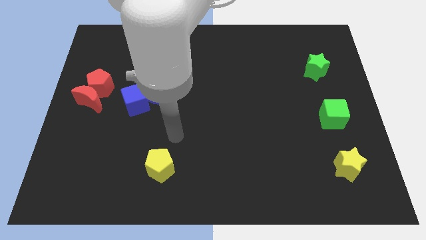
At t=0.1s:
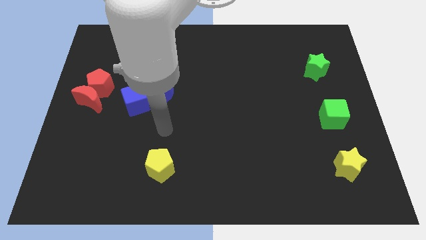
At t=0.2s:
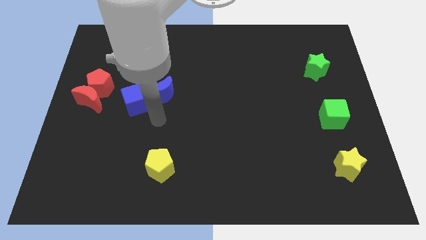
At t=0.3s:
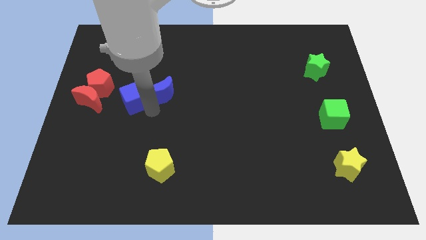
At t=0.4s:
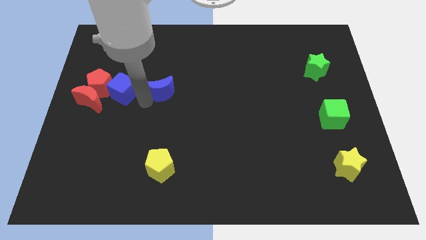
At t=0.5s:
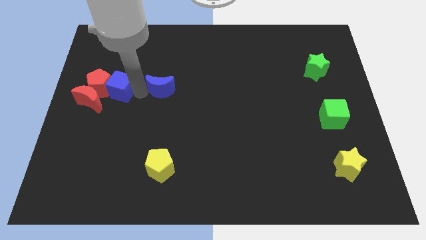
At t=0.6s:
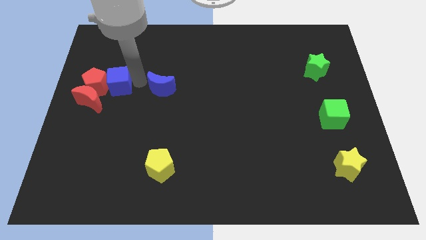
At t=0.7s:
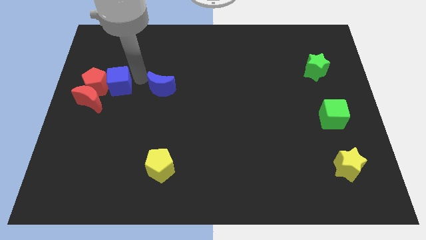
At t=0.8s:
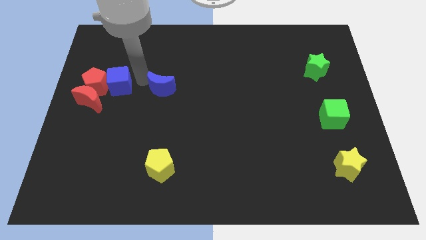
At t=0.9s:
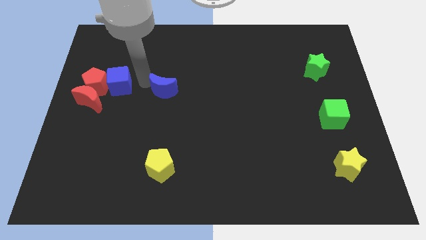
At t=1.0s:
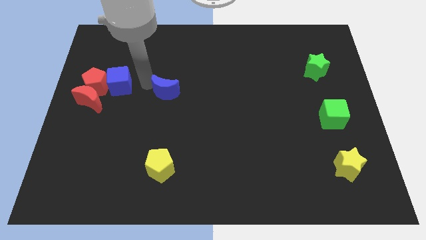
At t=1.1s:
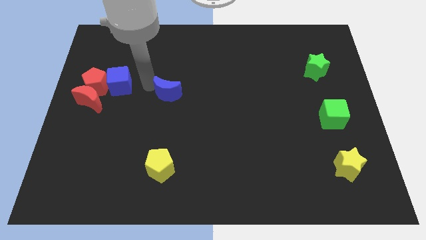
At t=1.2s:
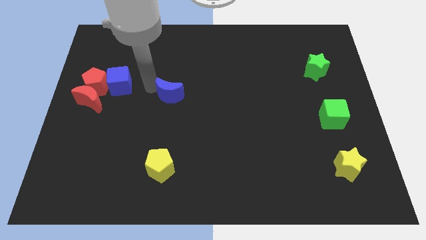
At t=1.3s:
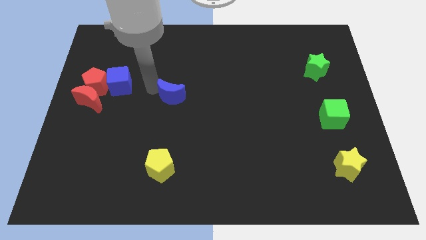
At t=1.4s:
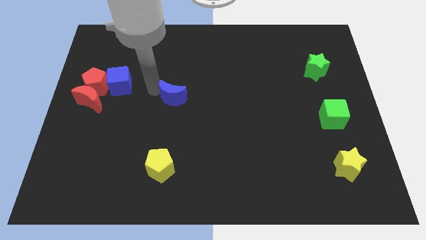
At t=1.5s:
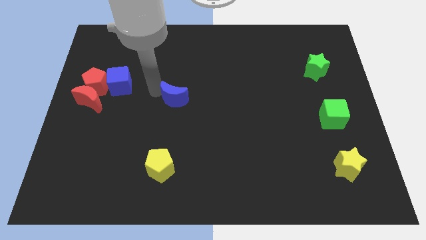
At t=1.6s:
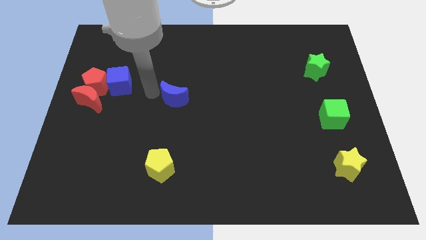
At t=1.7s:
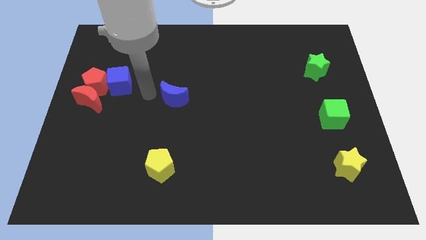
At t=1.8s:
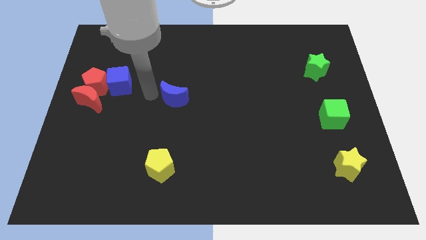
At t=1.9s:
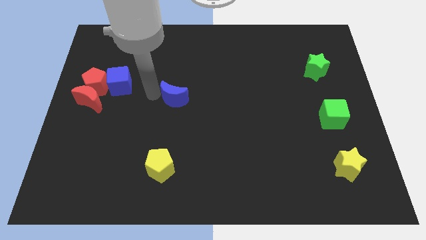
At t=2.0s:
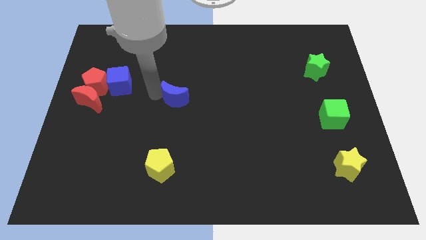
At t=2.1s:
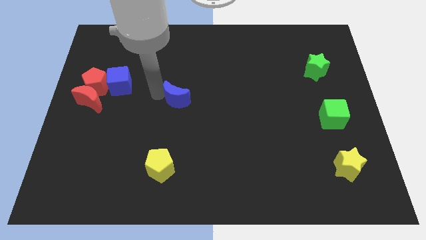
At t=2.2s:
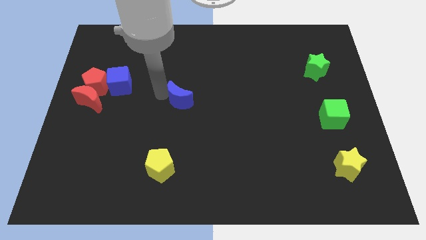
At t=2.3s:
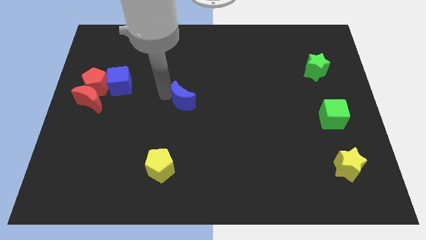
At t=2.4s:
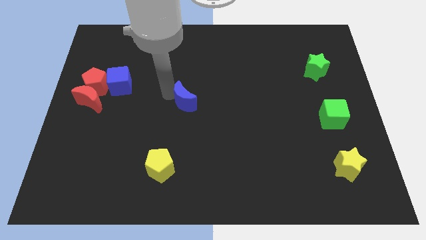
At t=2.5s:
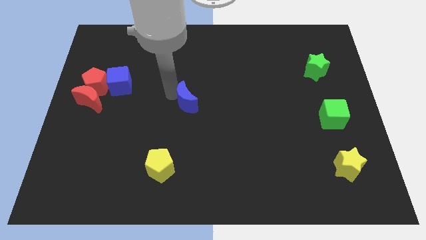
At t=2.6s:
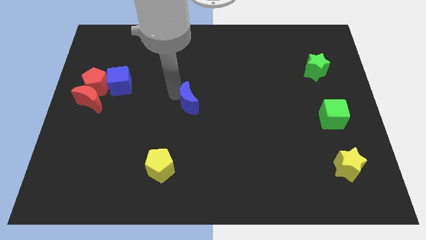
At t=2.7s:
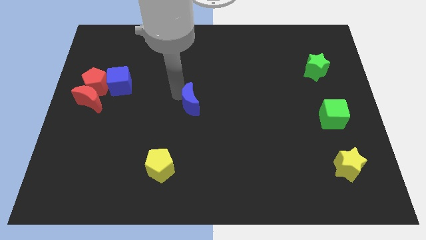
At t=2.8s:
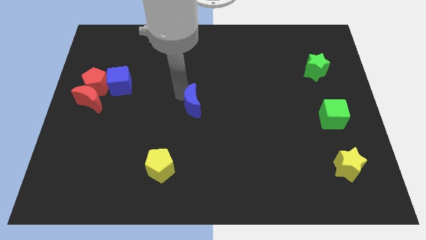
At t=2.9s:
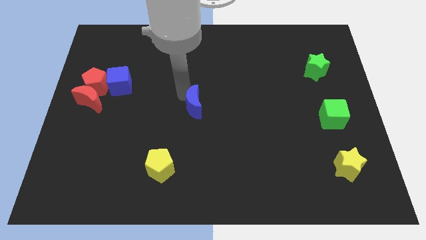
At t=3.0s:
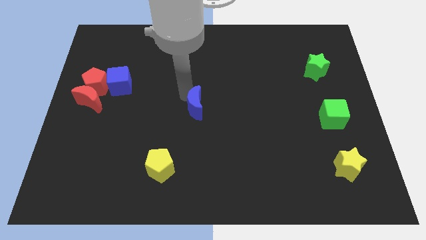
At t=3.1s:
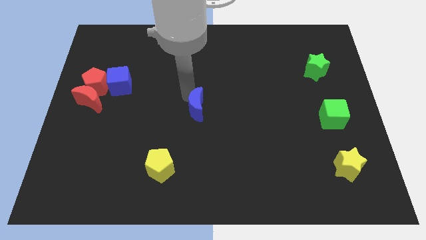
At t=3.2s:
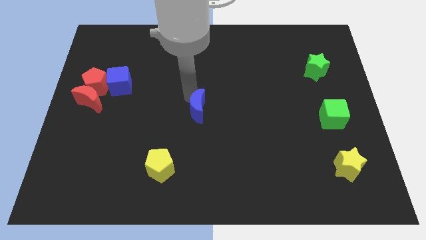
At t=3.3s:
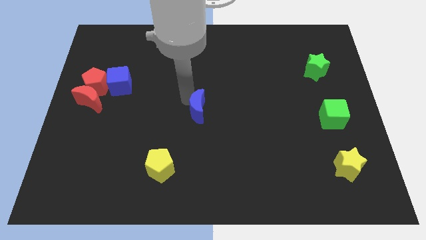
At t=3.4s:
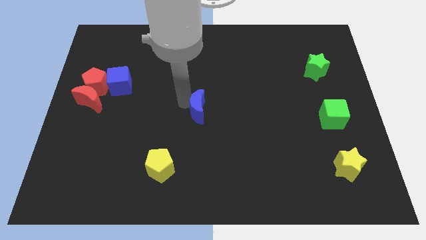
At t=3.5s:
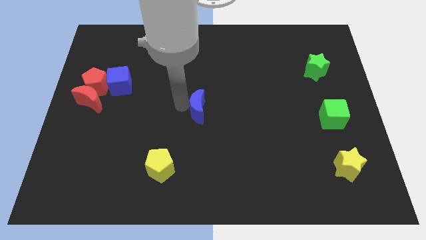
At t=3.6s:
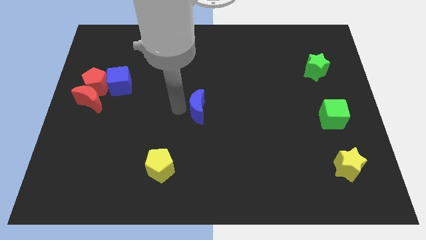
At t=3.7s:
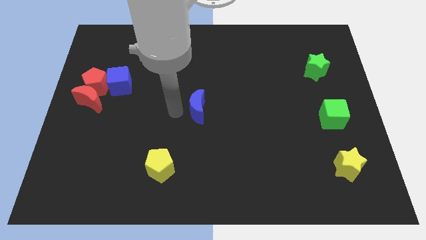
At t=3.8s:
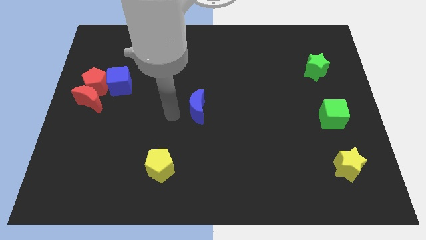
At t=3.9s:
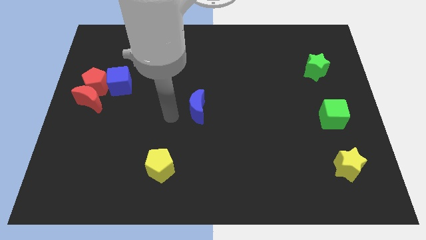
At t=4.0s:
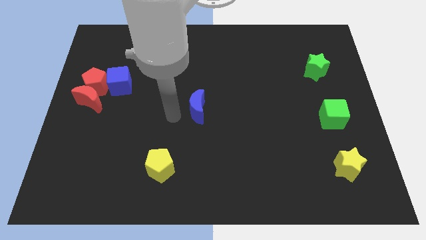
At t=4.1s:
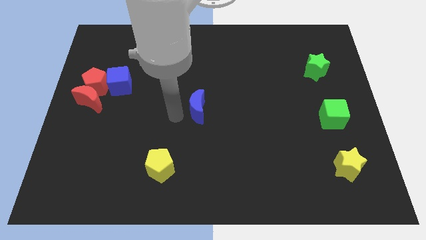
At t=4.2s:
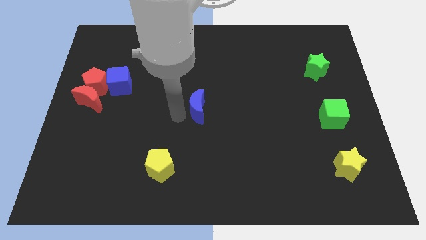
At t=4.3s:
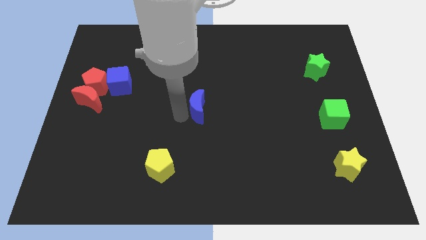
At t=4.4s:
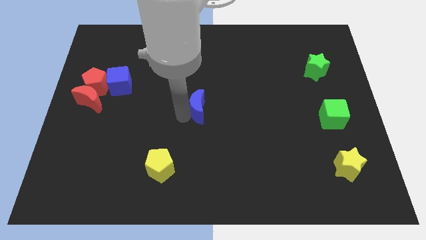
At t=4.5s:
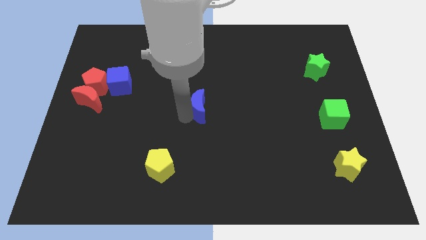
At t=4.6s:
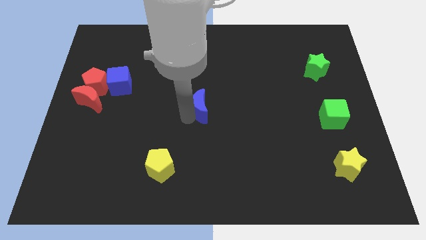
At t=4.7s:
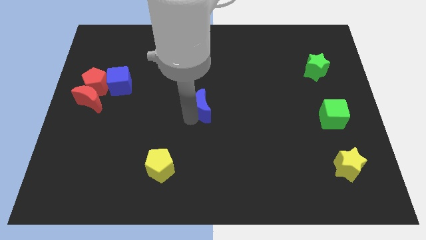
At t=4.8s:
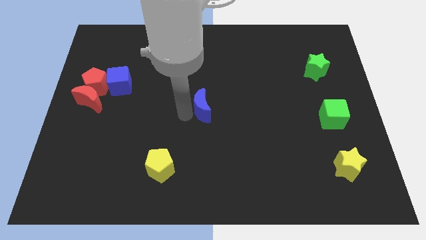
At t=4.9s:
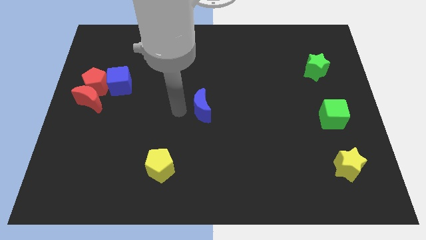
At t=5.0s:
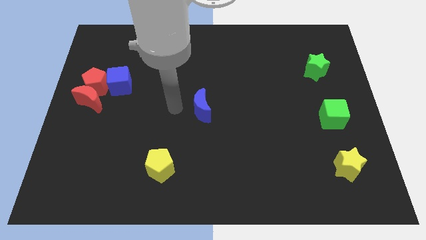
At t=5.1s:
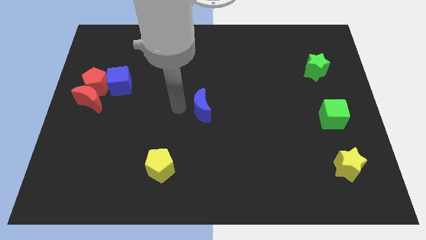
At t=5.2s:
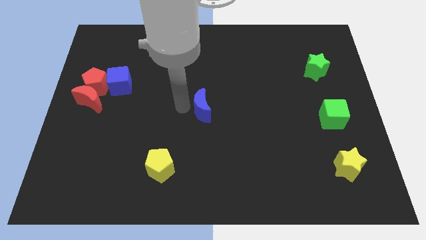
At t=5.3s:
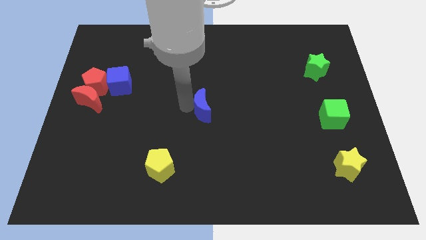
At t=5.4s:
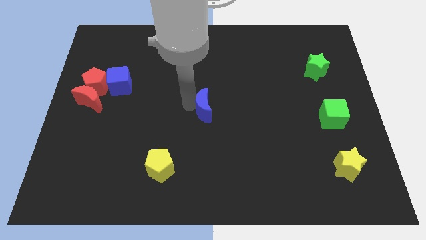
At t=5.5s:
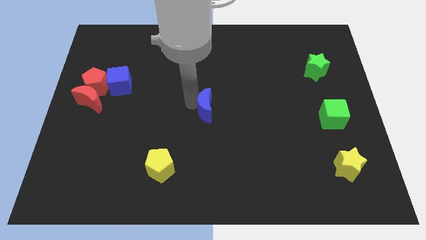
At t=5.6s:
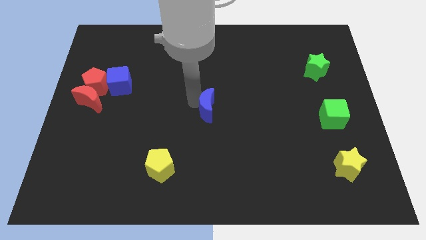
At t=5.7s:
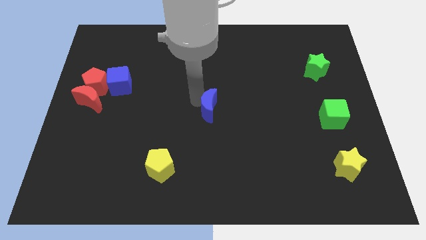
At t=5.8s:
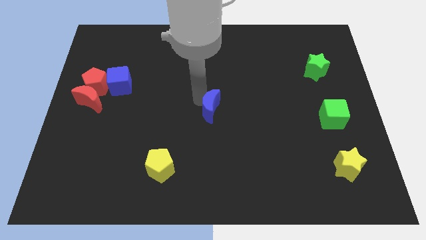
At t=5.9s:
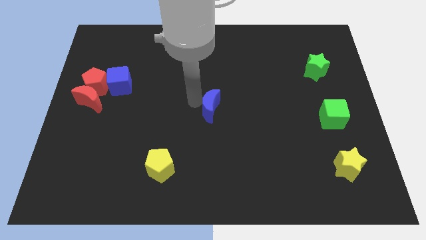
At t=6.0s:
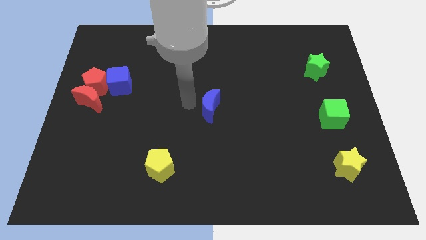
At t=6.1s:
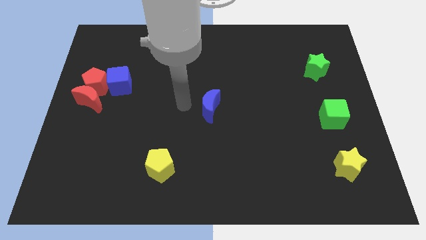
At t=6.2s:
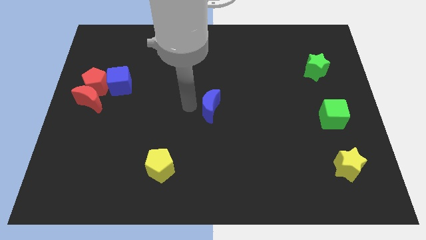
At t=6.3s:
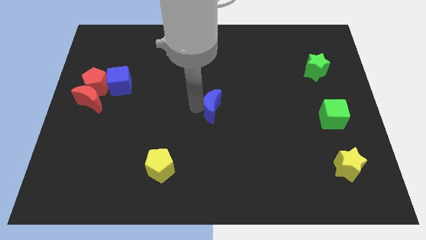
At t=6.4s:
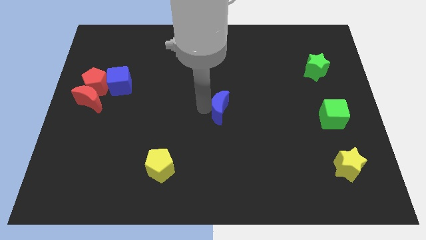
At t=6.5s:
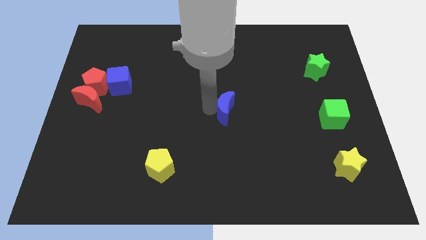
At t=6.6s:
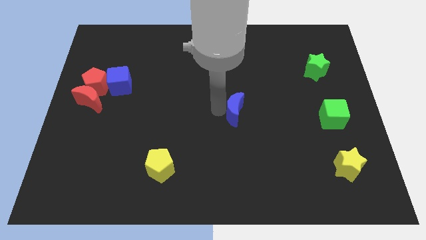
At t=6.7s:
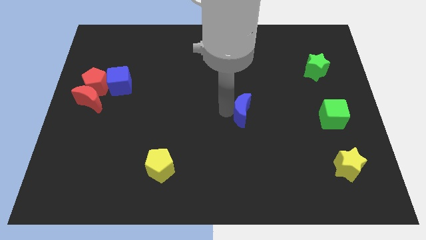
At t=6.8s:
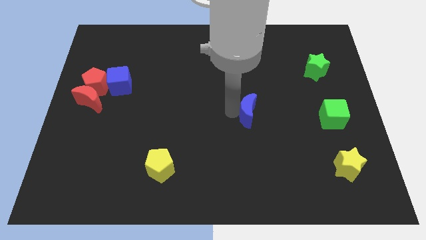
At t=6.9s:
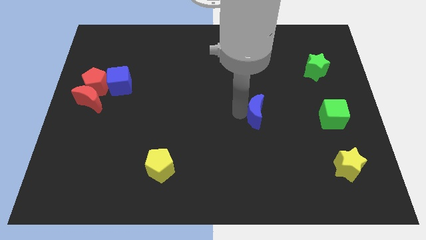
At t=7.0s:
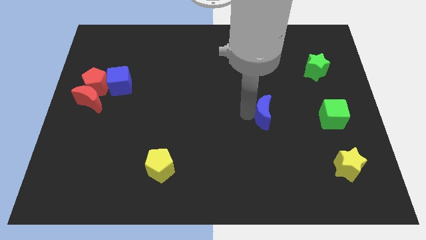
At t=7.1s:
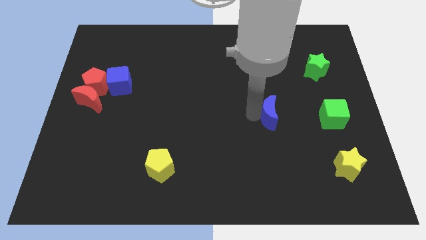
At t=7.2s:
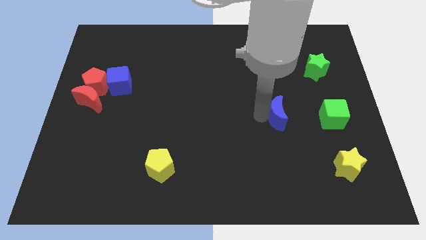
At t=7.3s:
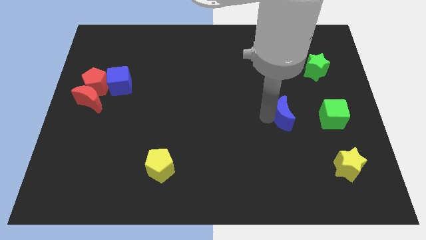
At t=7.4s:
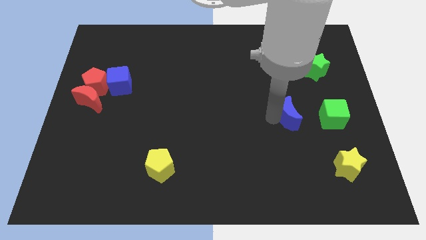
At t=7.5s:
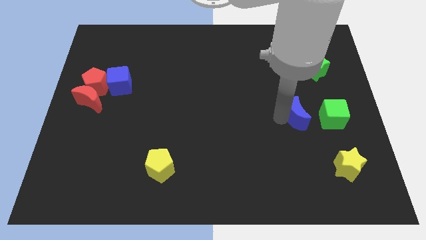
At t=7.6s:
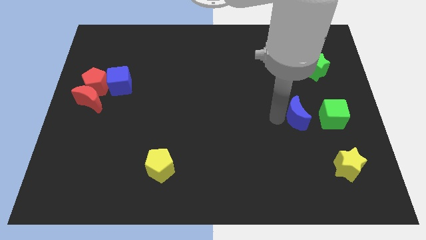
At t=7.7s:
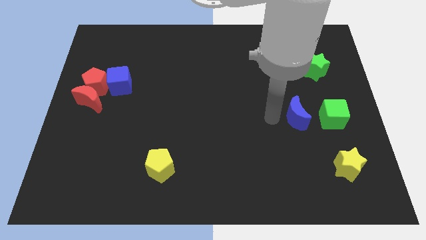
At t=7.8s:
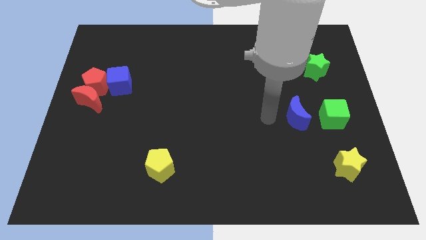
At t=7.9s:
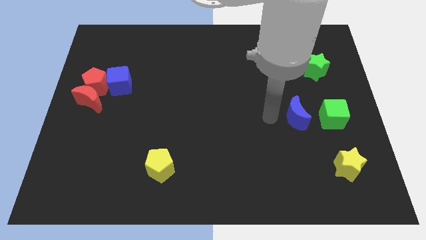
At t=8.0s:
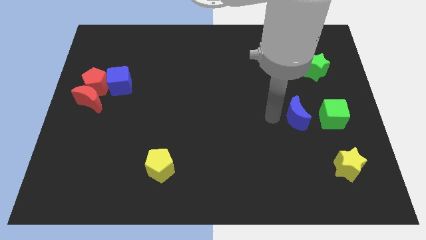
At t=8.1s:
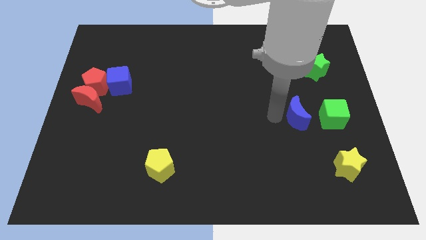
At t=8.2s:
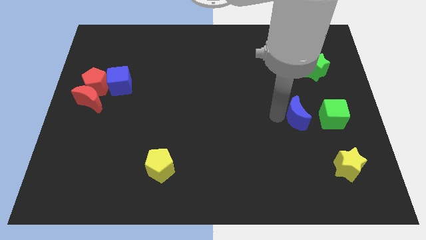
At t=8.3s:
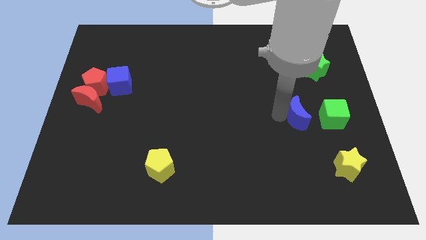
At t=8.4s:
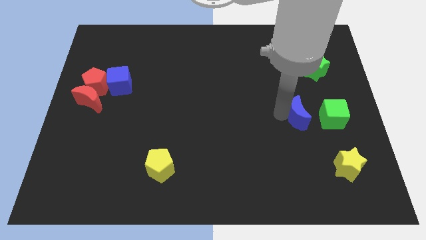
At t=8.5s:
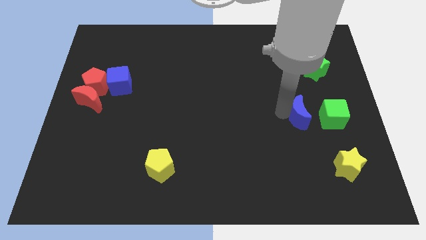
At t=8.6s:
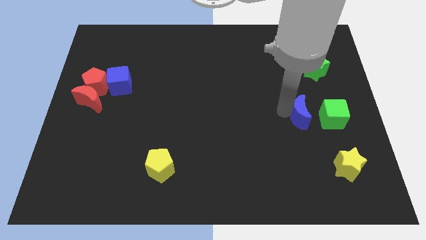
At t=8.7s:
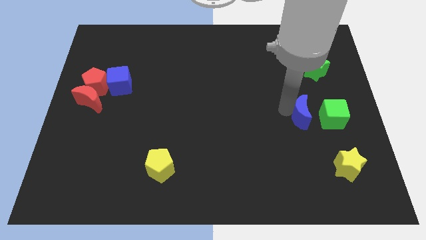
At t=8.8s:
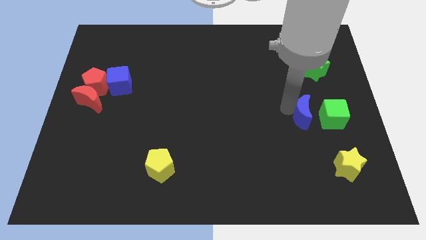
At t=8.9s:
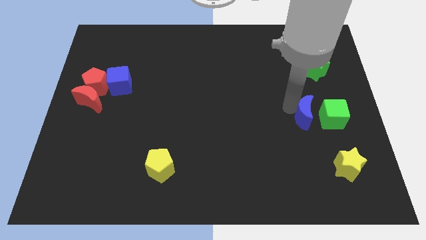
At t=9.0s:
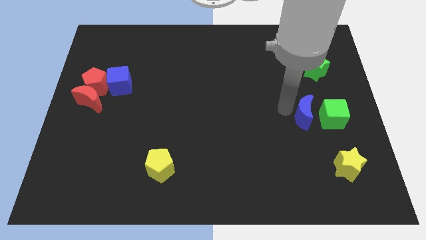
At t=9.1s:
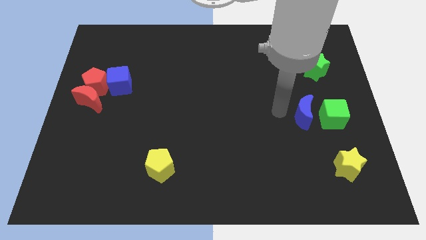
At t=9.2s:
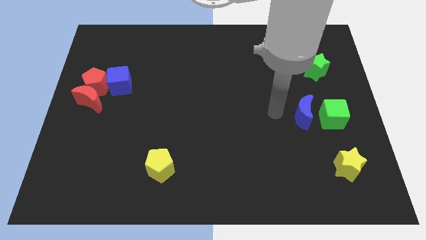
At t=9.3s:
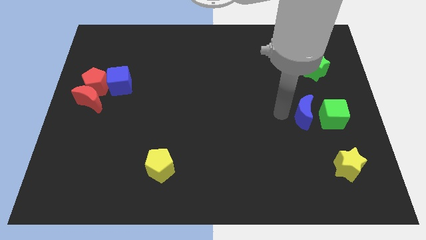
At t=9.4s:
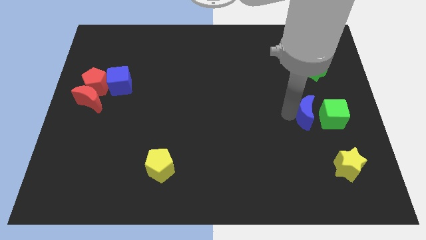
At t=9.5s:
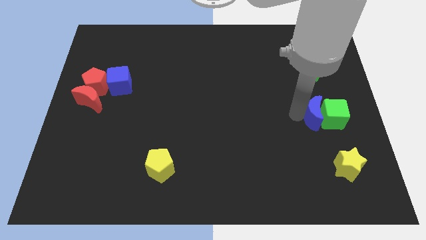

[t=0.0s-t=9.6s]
move the blue moon close to the green cube
